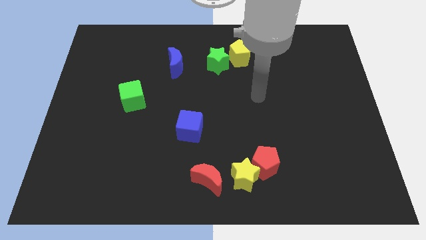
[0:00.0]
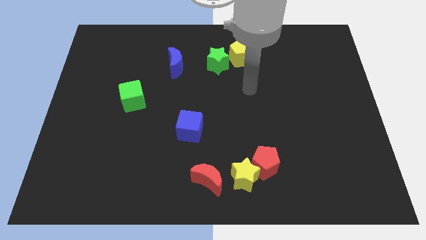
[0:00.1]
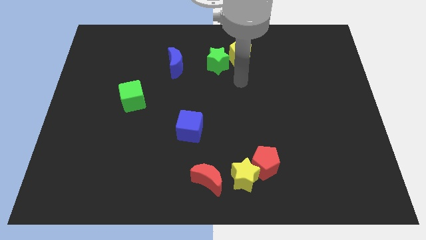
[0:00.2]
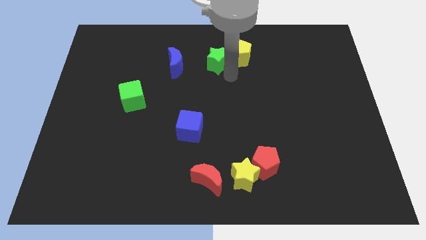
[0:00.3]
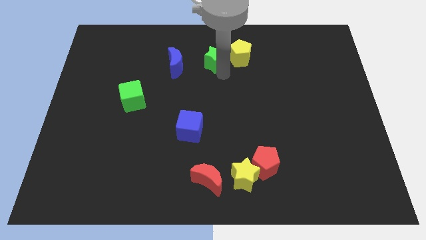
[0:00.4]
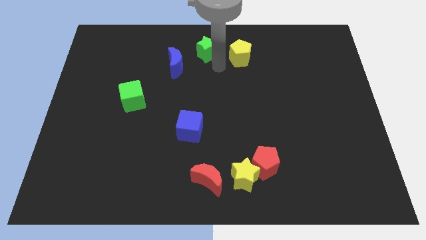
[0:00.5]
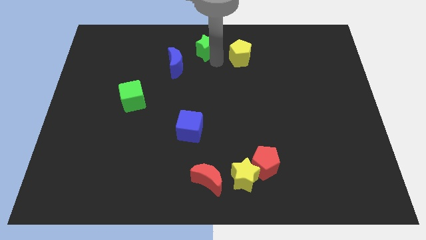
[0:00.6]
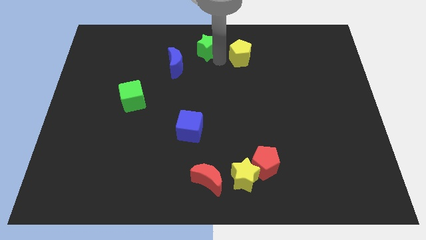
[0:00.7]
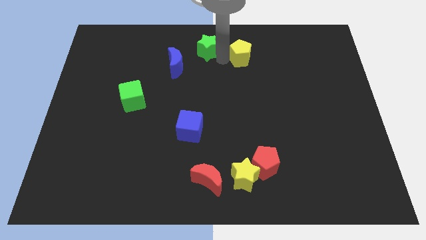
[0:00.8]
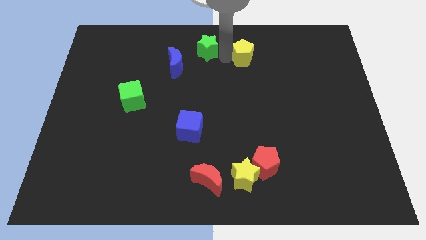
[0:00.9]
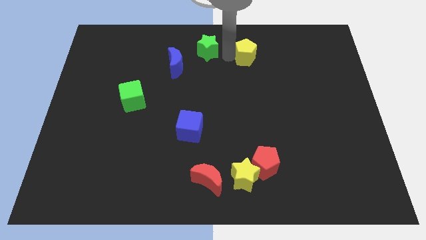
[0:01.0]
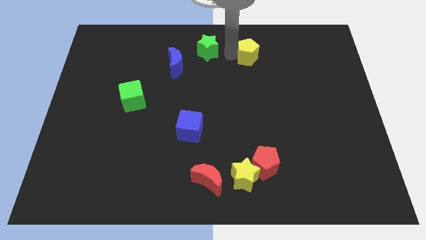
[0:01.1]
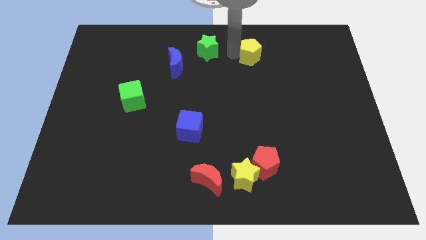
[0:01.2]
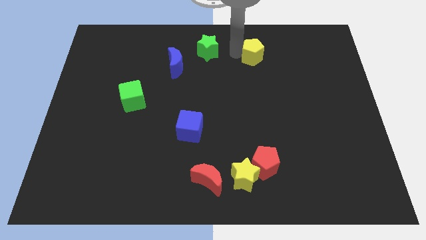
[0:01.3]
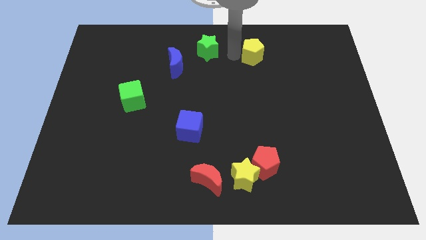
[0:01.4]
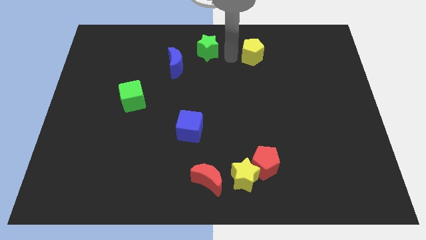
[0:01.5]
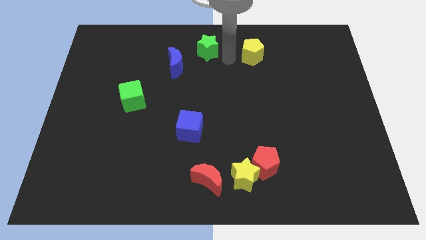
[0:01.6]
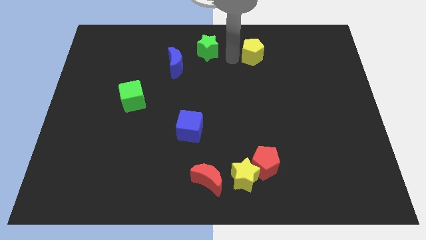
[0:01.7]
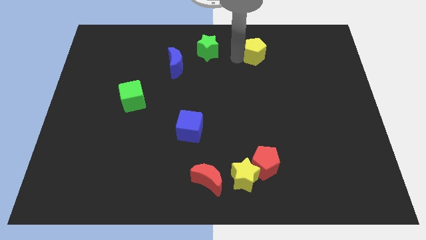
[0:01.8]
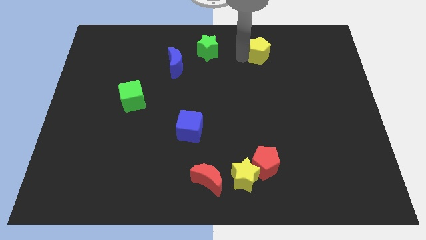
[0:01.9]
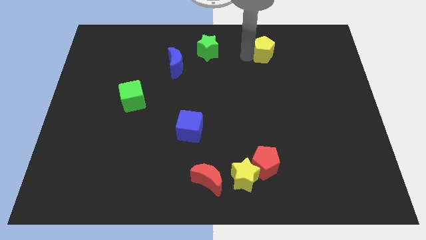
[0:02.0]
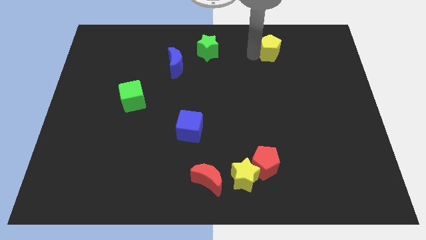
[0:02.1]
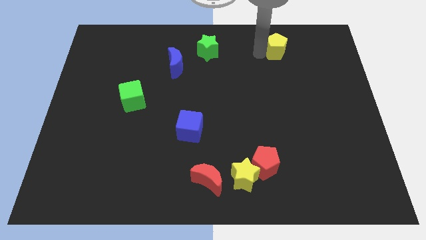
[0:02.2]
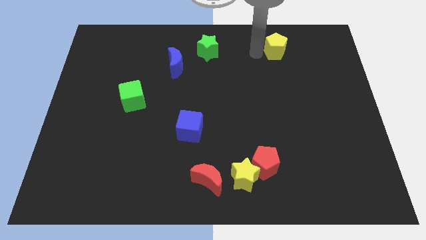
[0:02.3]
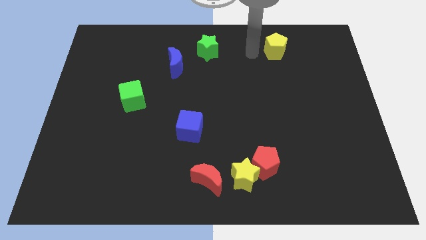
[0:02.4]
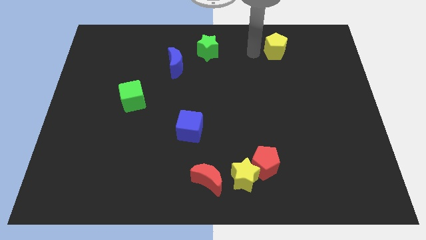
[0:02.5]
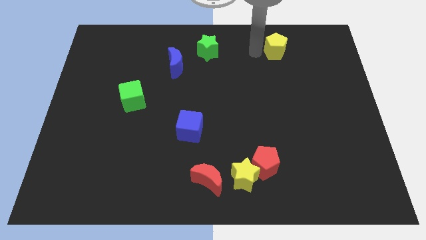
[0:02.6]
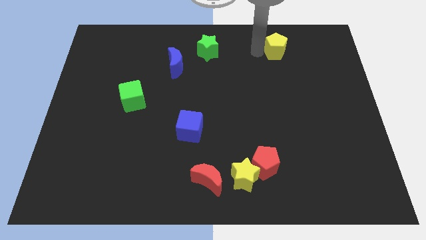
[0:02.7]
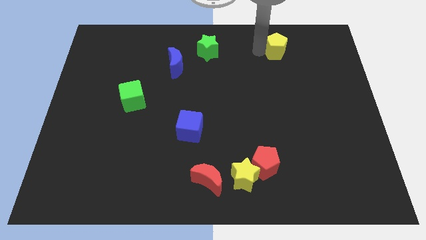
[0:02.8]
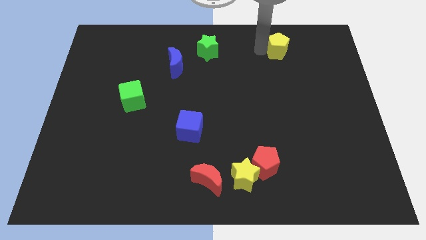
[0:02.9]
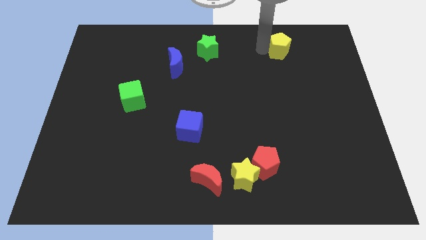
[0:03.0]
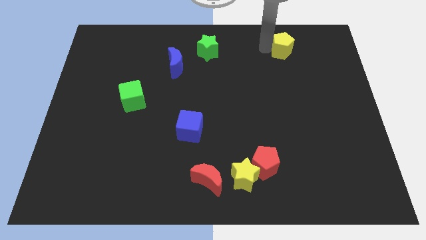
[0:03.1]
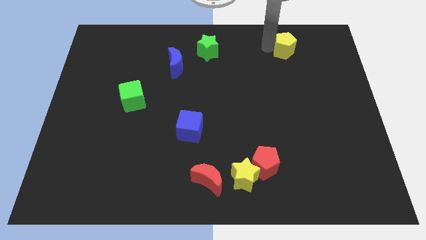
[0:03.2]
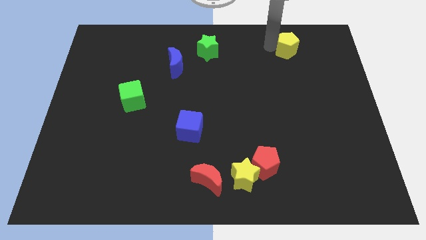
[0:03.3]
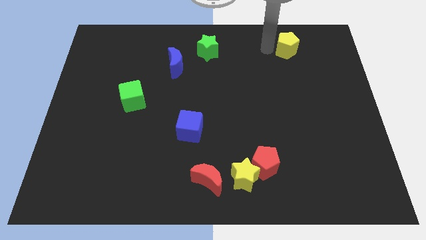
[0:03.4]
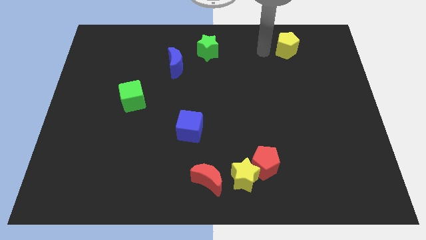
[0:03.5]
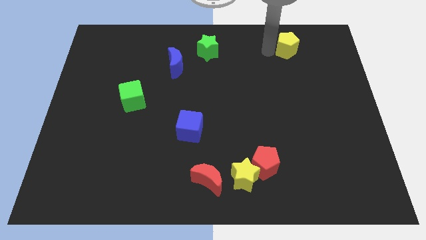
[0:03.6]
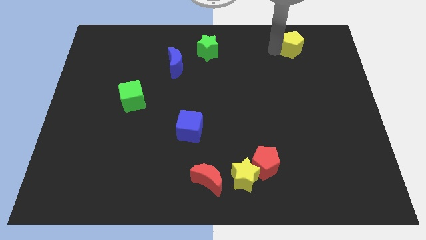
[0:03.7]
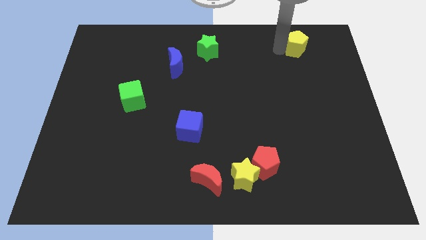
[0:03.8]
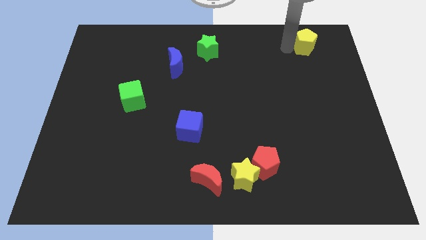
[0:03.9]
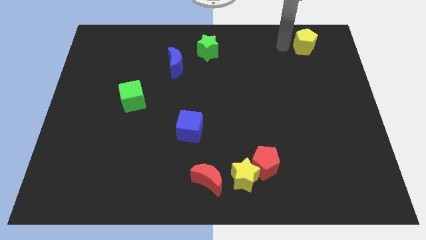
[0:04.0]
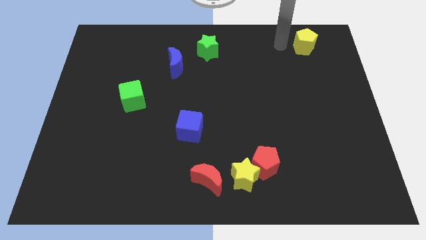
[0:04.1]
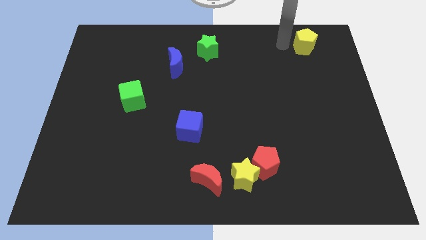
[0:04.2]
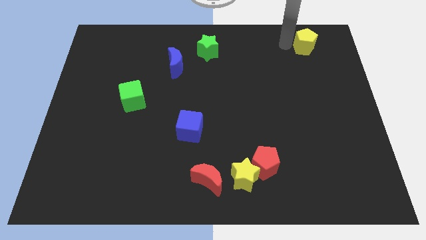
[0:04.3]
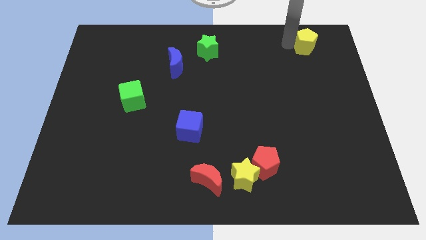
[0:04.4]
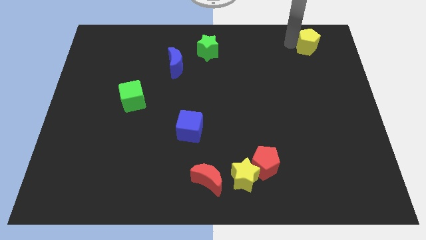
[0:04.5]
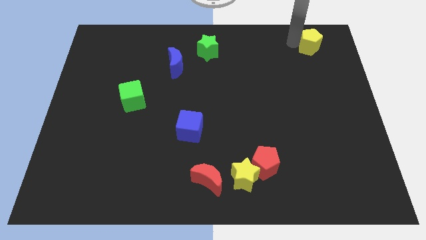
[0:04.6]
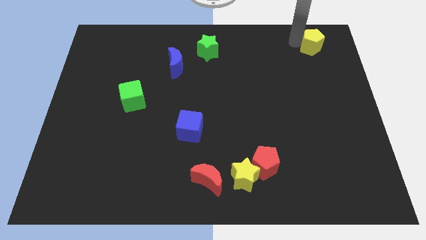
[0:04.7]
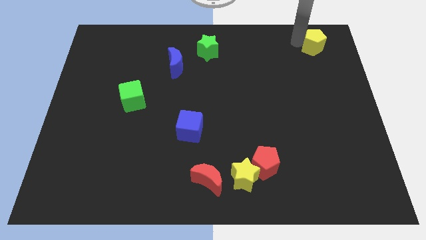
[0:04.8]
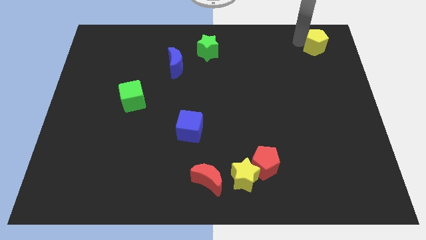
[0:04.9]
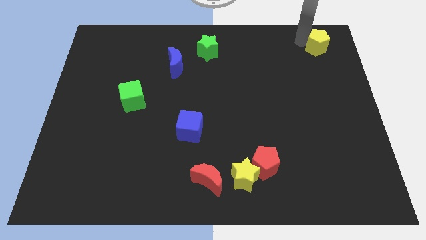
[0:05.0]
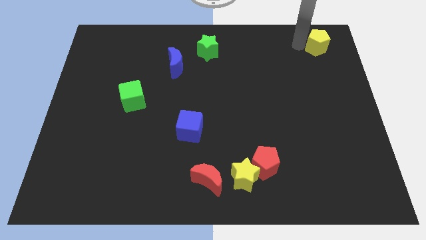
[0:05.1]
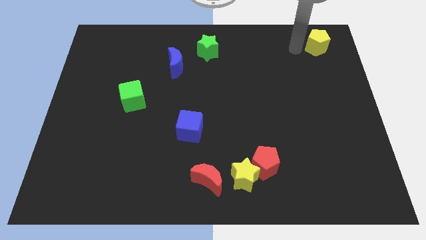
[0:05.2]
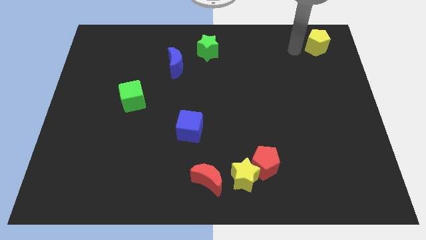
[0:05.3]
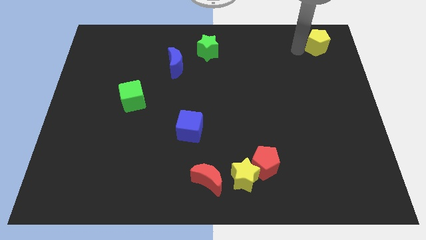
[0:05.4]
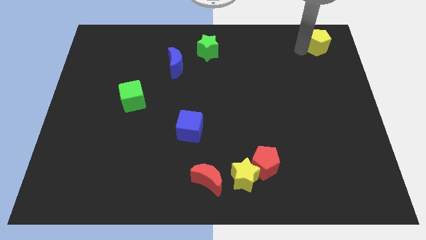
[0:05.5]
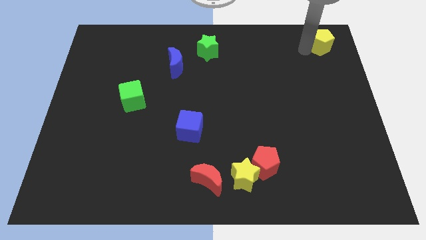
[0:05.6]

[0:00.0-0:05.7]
put the yellow pentagon to the top right of the board

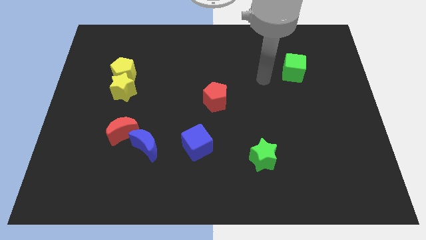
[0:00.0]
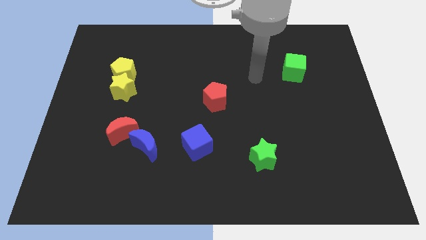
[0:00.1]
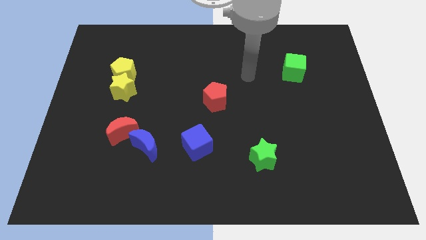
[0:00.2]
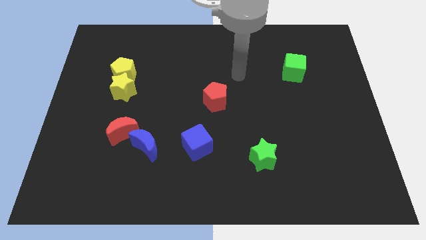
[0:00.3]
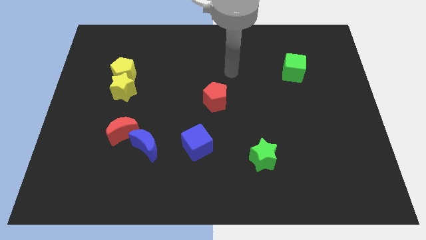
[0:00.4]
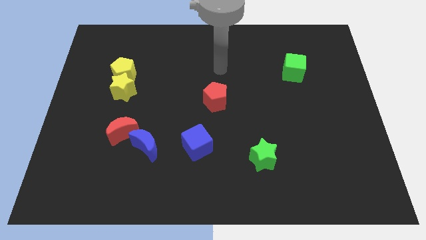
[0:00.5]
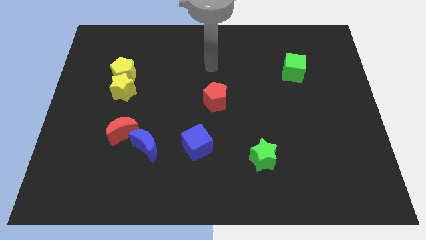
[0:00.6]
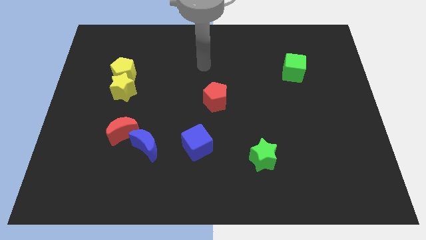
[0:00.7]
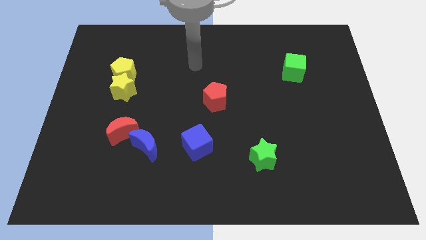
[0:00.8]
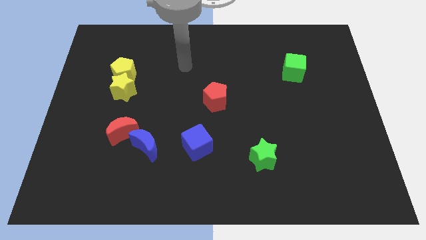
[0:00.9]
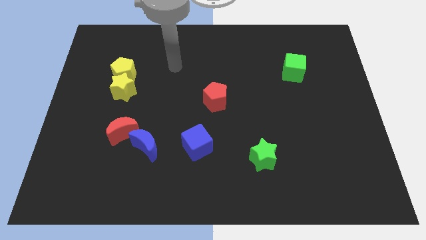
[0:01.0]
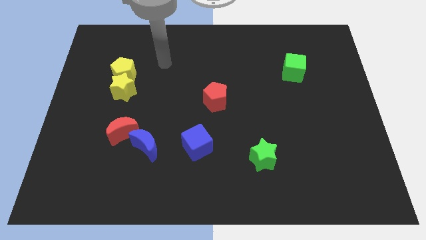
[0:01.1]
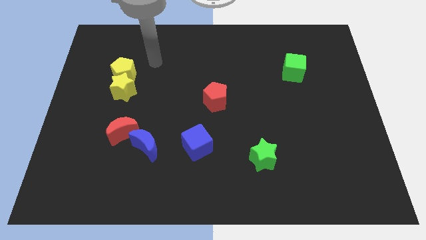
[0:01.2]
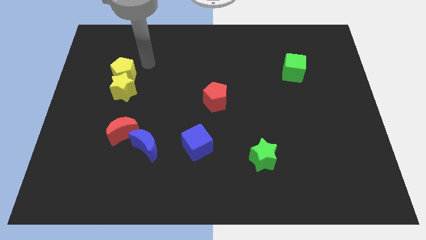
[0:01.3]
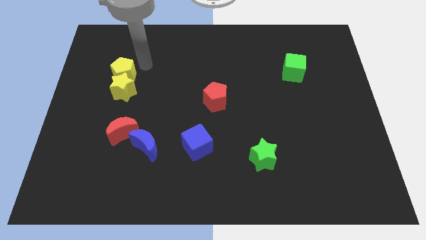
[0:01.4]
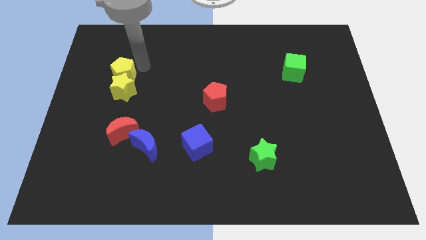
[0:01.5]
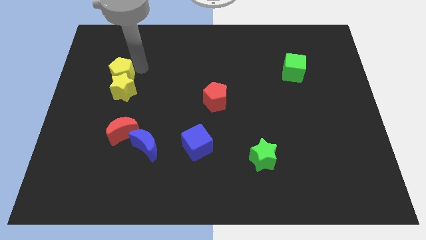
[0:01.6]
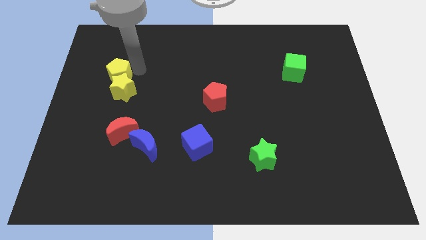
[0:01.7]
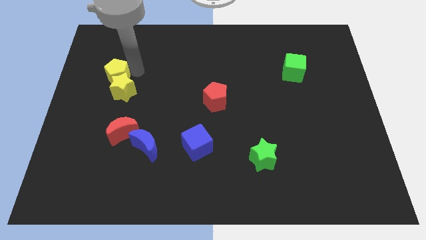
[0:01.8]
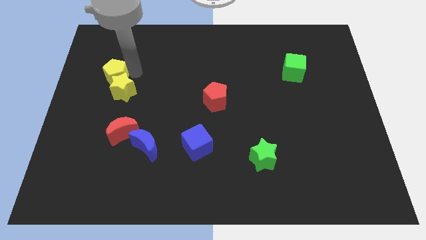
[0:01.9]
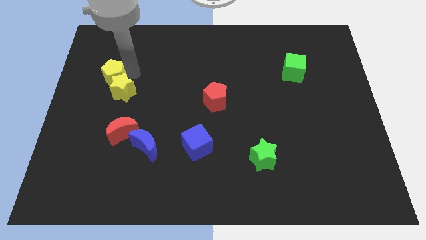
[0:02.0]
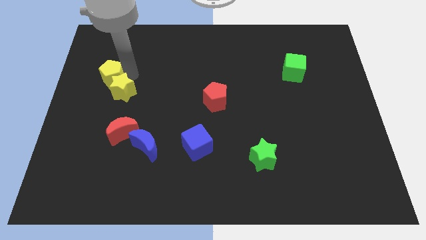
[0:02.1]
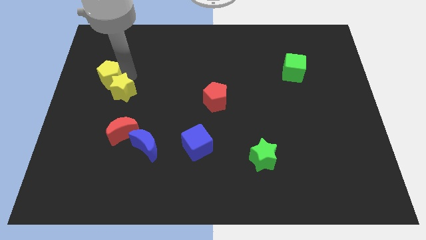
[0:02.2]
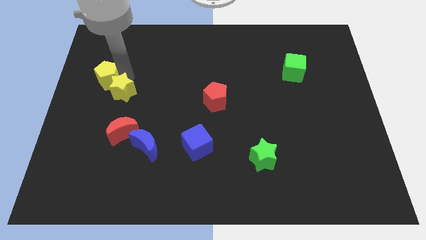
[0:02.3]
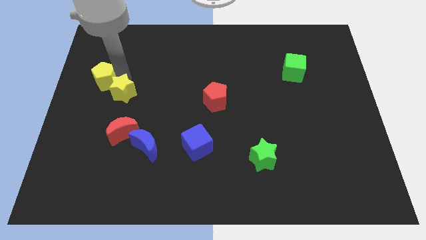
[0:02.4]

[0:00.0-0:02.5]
push the yellow pentagon to the left side of the board
